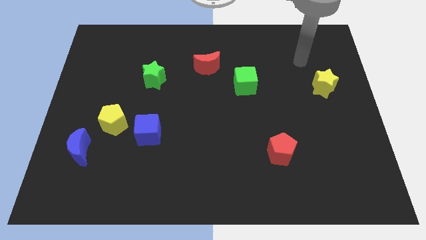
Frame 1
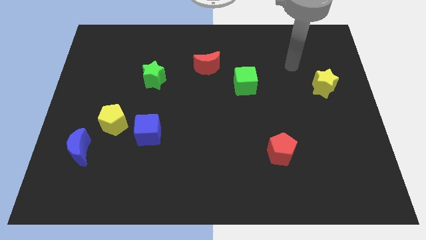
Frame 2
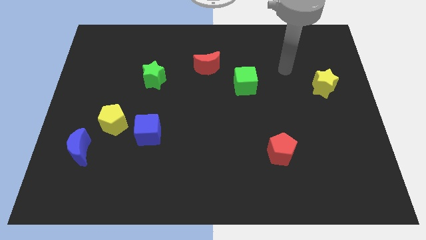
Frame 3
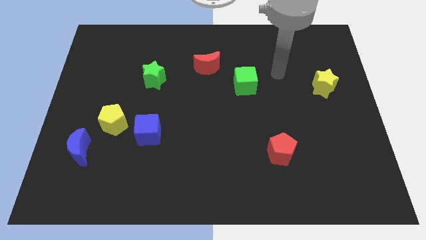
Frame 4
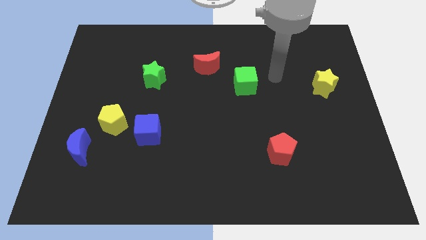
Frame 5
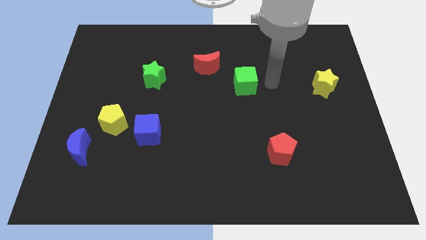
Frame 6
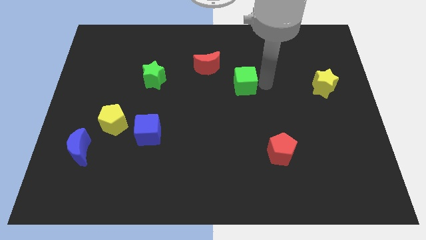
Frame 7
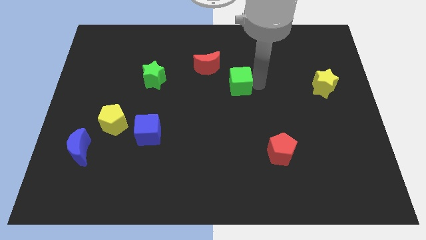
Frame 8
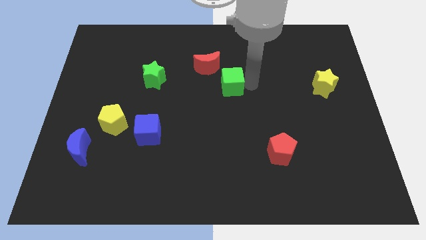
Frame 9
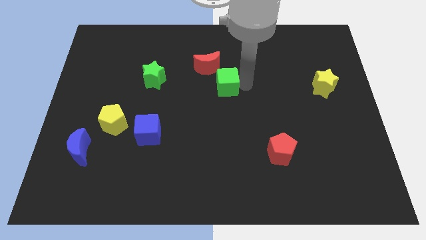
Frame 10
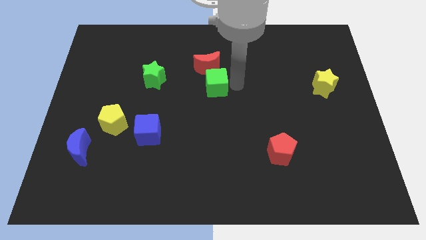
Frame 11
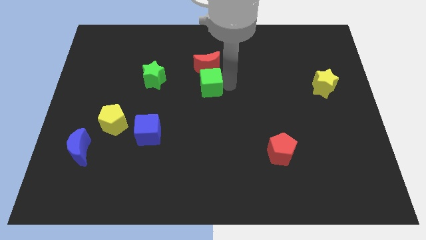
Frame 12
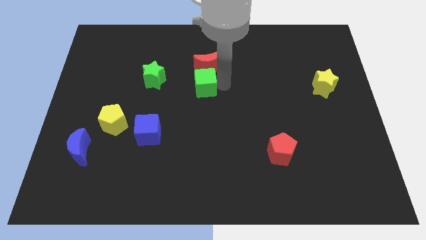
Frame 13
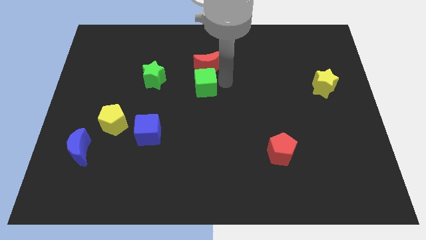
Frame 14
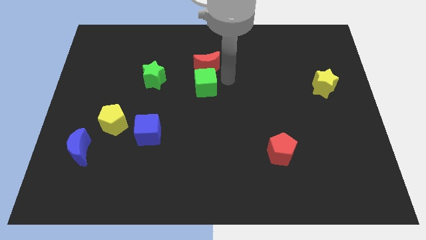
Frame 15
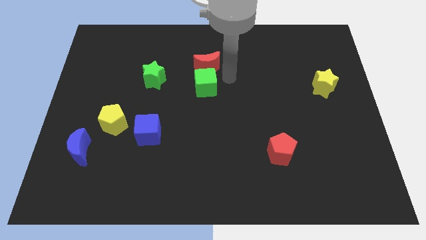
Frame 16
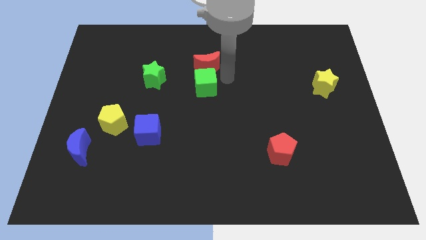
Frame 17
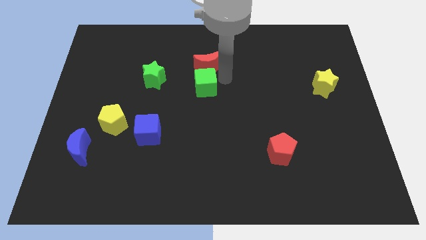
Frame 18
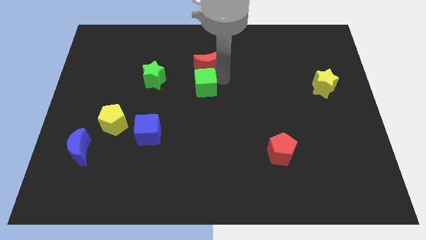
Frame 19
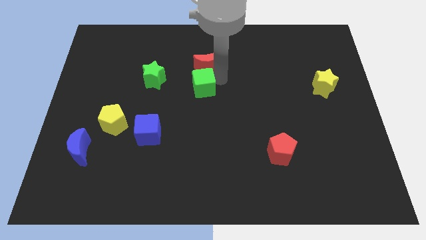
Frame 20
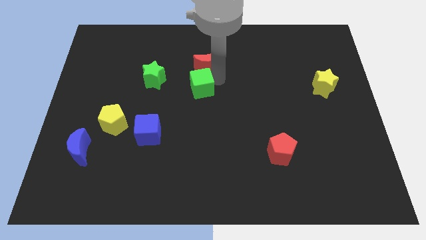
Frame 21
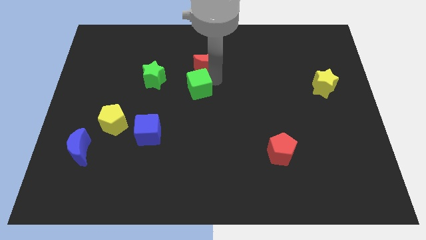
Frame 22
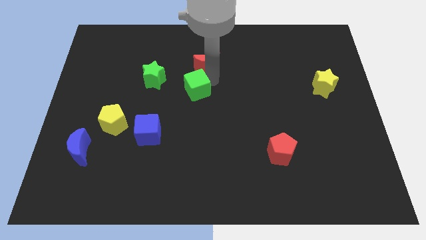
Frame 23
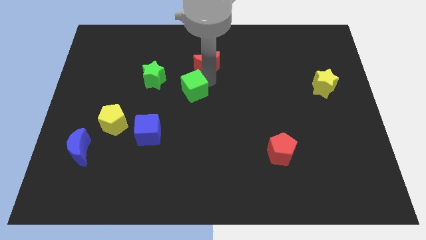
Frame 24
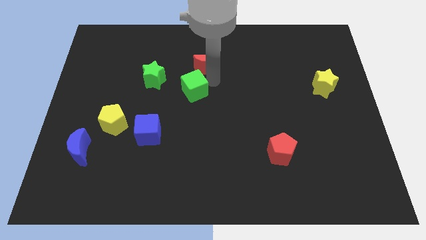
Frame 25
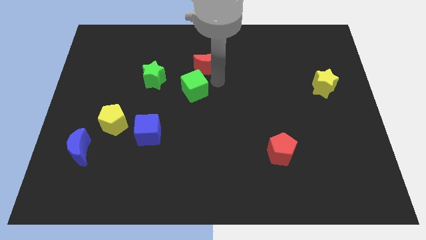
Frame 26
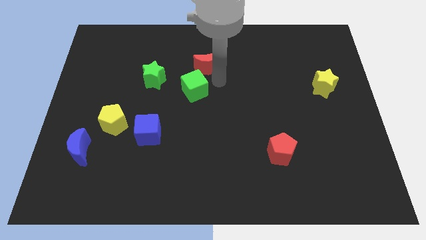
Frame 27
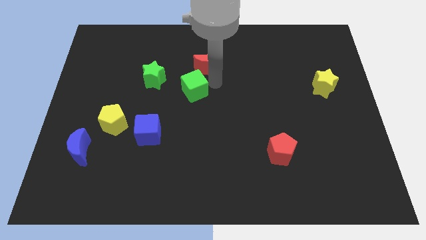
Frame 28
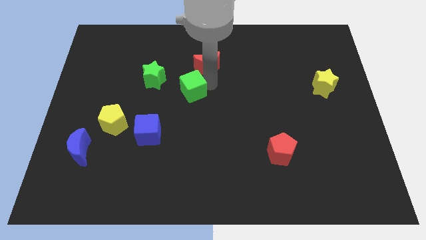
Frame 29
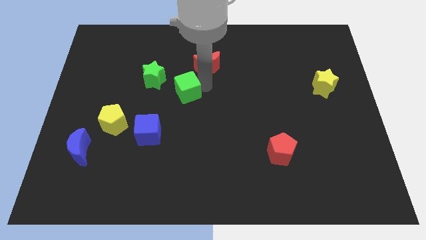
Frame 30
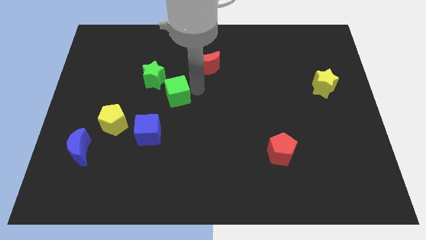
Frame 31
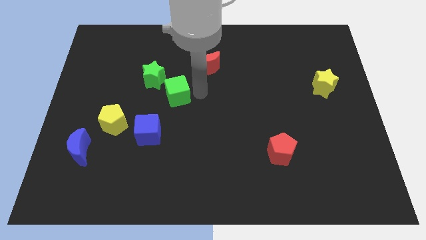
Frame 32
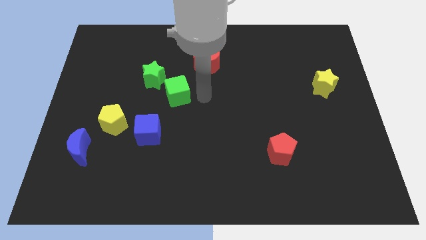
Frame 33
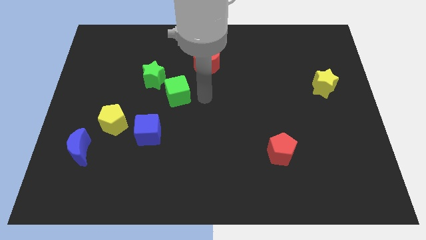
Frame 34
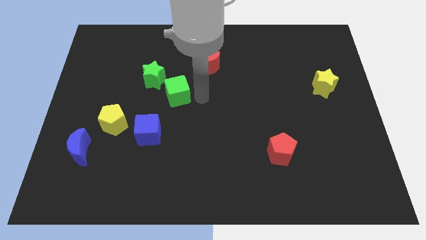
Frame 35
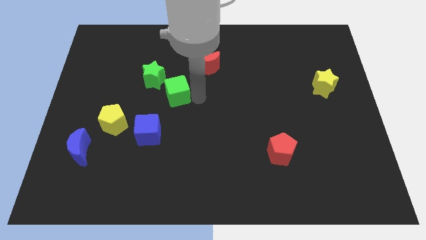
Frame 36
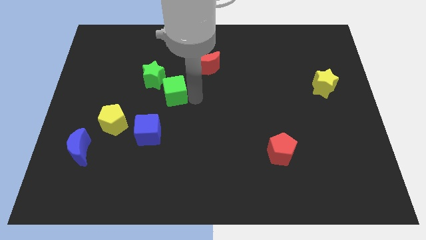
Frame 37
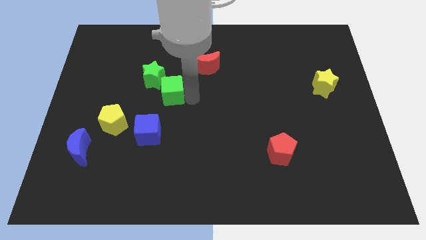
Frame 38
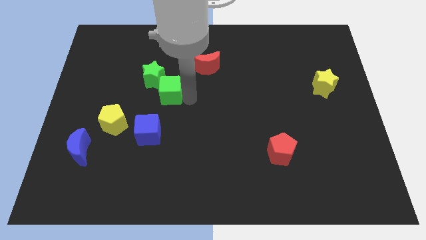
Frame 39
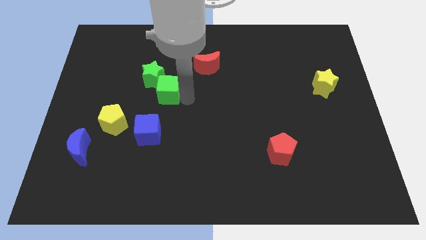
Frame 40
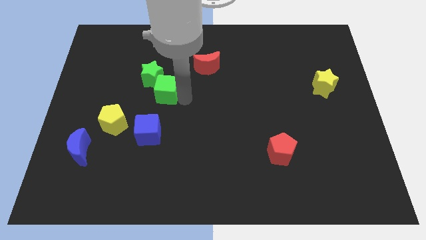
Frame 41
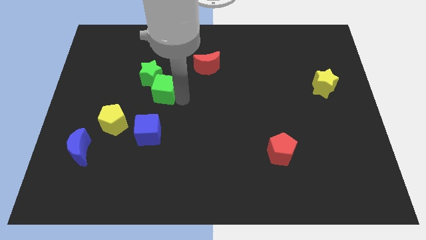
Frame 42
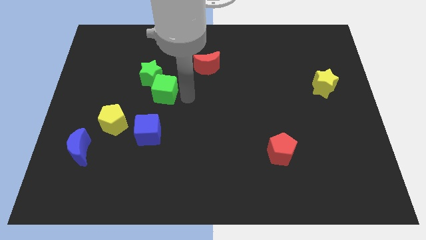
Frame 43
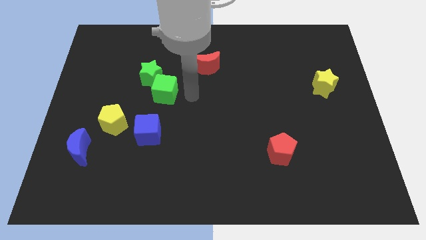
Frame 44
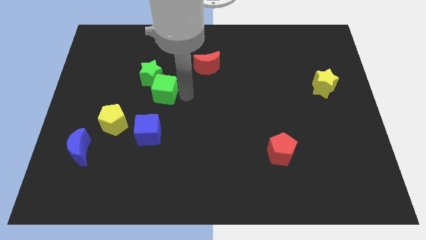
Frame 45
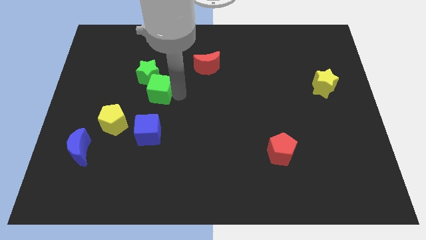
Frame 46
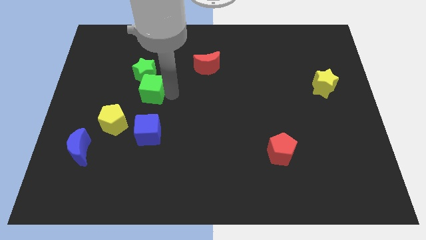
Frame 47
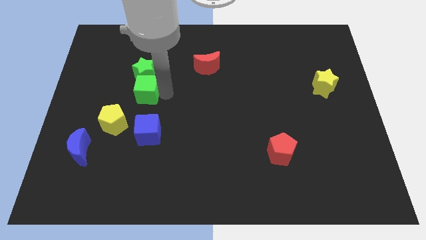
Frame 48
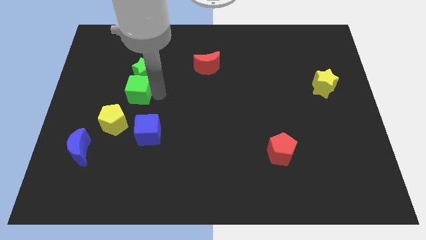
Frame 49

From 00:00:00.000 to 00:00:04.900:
push the green cube to the top side of the yellow pentagon

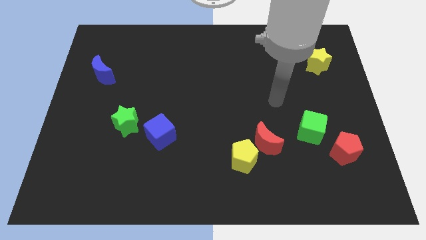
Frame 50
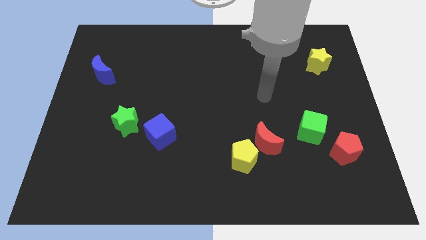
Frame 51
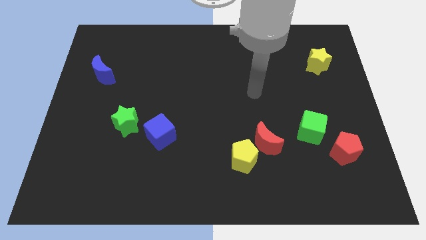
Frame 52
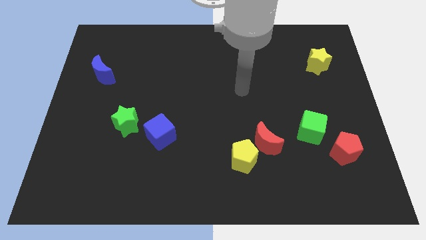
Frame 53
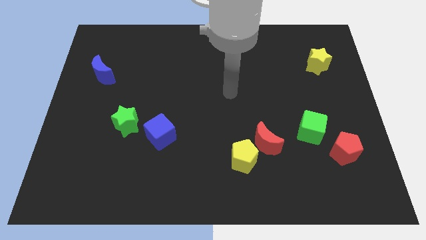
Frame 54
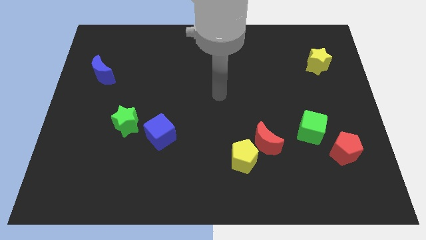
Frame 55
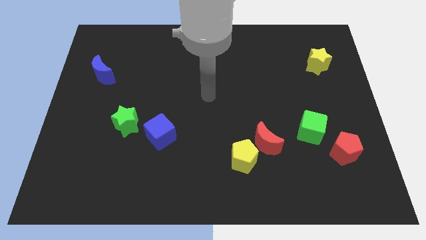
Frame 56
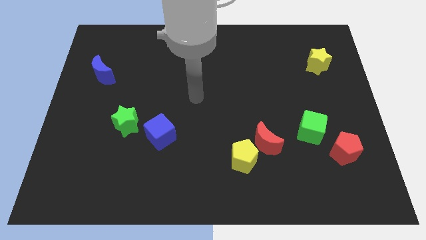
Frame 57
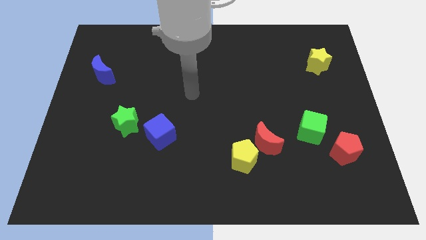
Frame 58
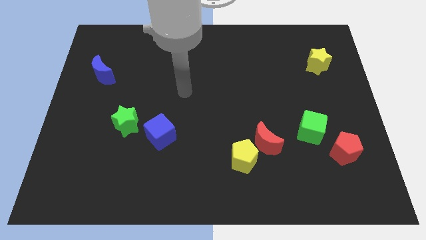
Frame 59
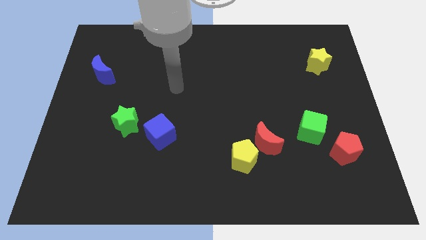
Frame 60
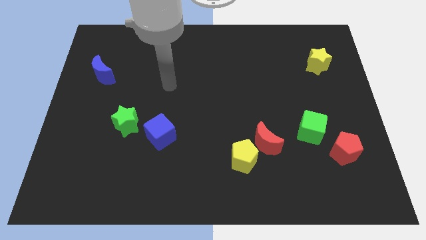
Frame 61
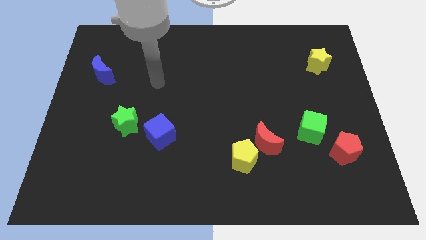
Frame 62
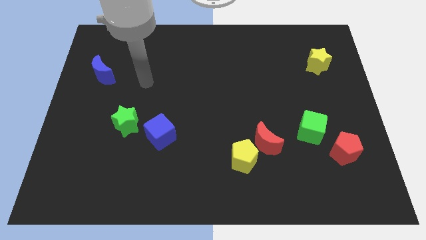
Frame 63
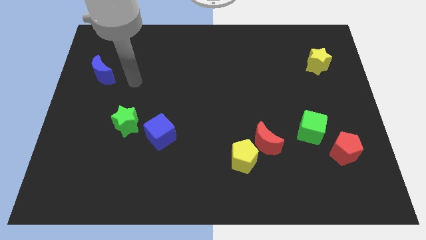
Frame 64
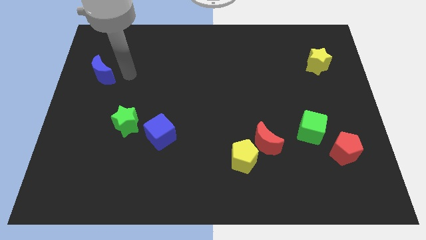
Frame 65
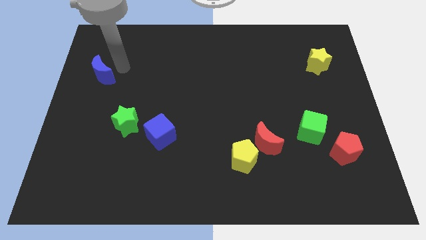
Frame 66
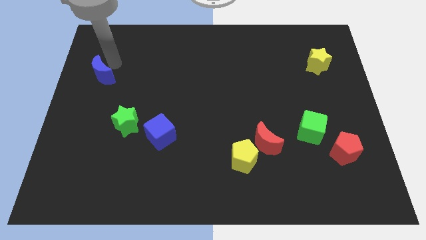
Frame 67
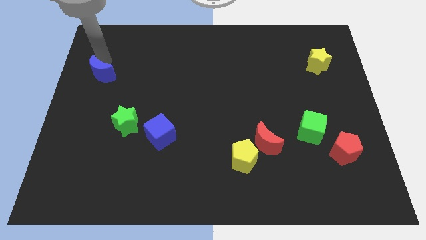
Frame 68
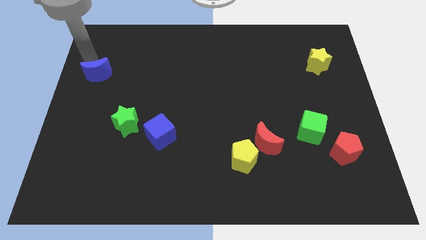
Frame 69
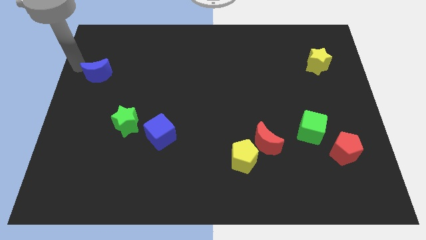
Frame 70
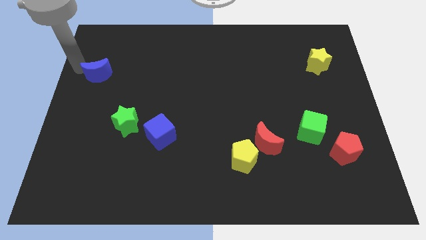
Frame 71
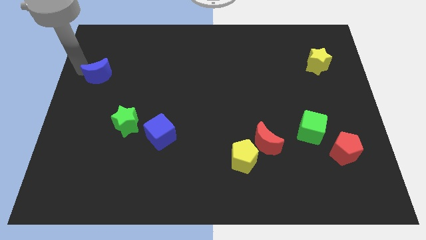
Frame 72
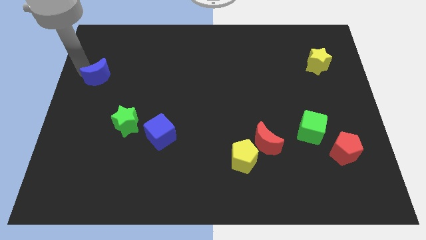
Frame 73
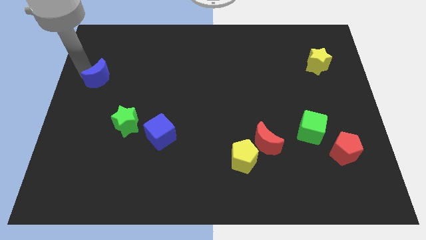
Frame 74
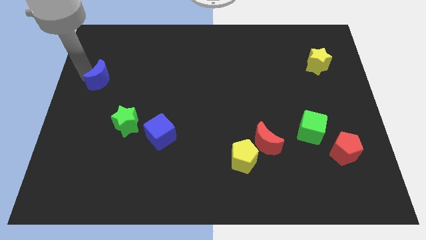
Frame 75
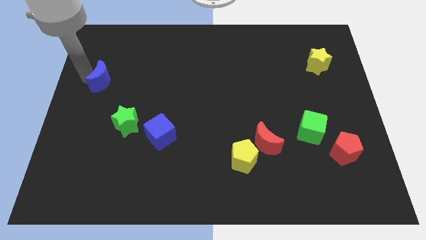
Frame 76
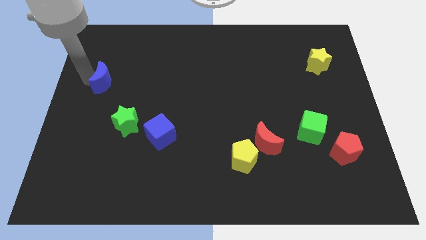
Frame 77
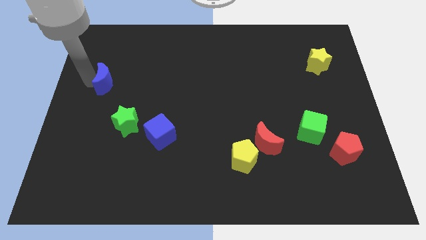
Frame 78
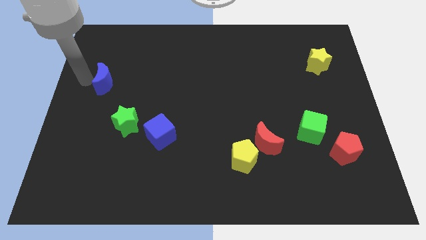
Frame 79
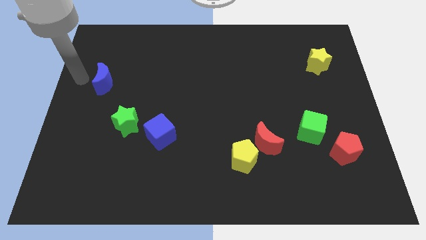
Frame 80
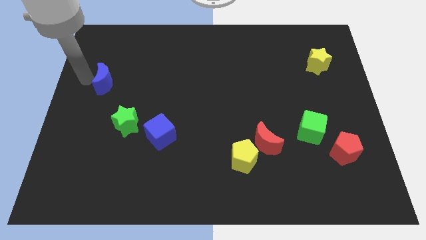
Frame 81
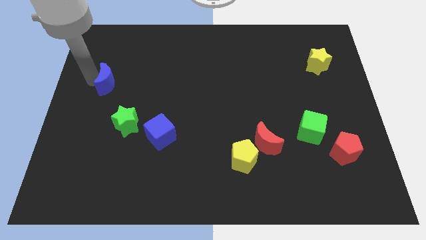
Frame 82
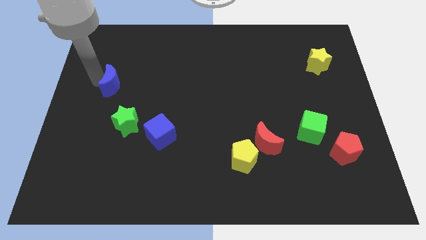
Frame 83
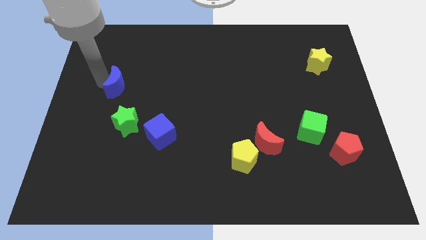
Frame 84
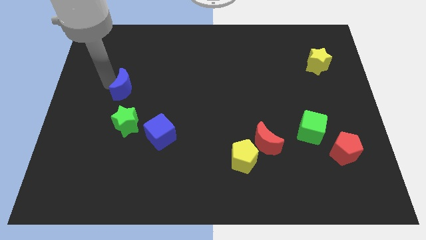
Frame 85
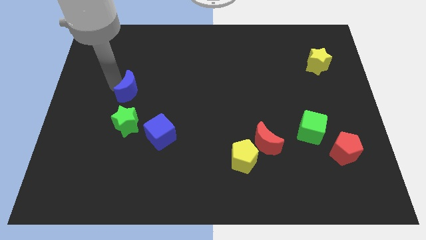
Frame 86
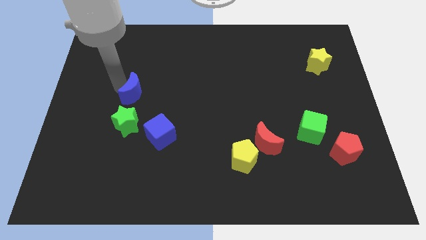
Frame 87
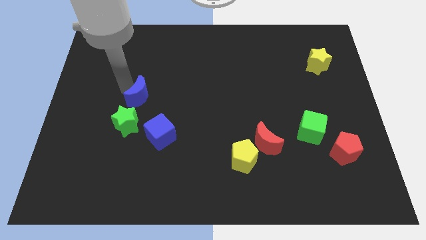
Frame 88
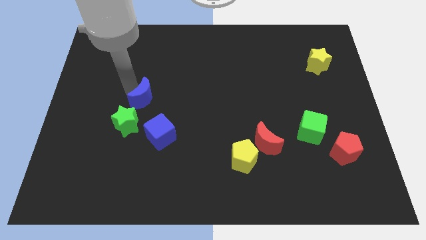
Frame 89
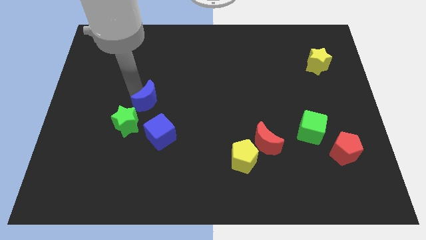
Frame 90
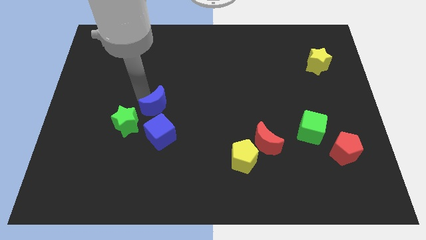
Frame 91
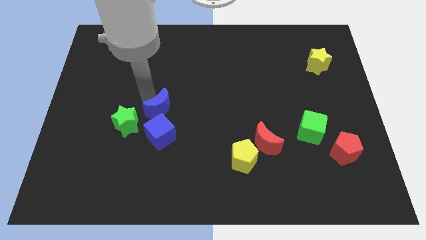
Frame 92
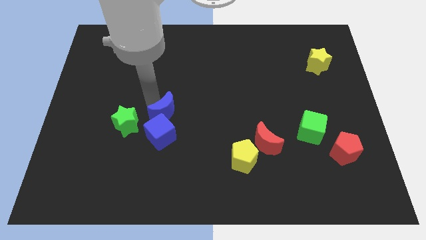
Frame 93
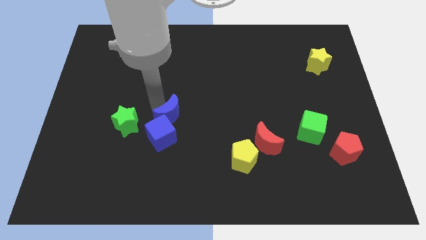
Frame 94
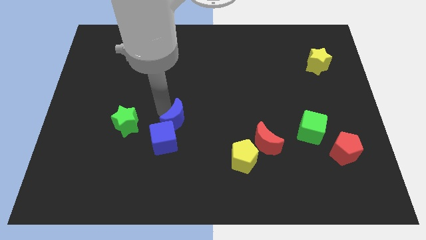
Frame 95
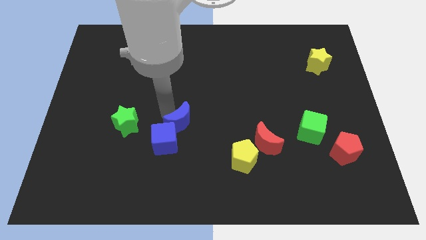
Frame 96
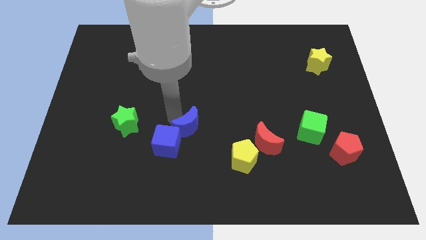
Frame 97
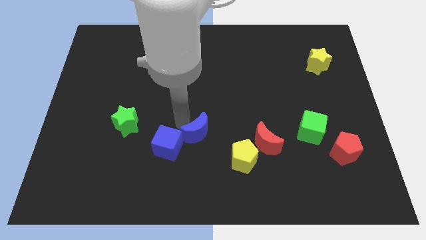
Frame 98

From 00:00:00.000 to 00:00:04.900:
move the blue moon just left of the red moon
